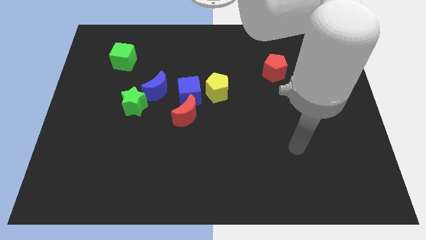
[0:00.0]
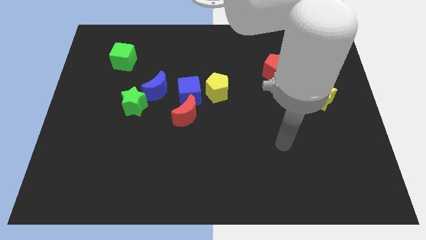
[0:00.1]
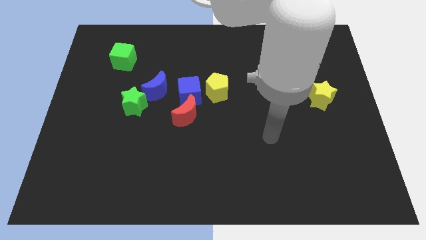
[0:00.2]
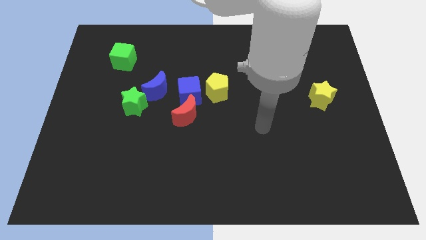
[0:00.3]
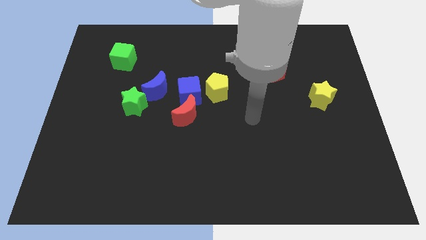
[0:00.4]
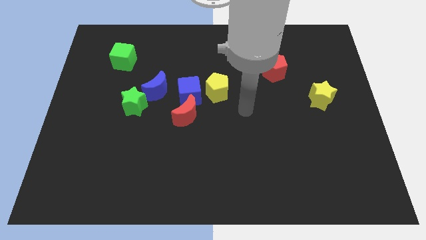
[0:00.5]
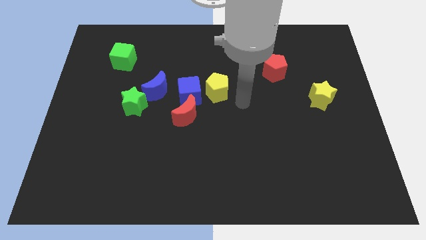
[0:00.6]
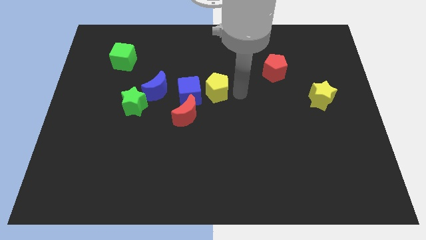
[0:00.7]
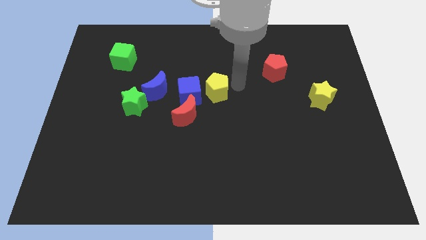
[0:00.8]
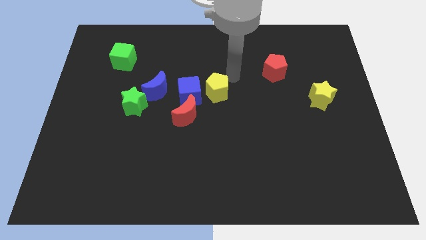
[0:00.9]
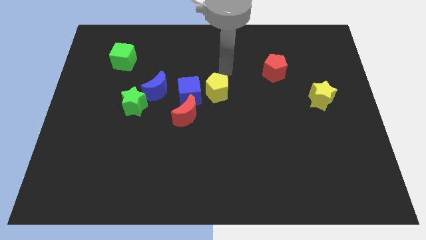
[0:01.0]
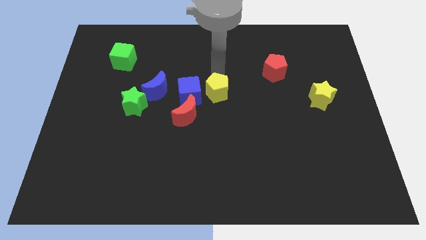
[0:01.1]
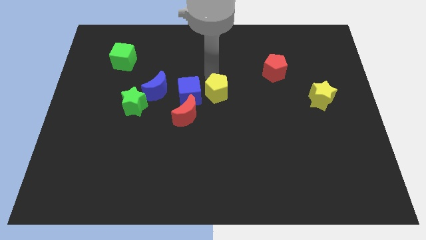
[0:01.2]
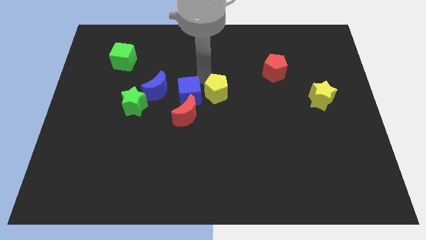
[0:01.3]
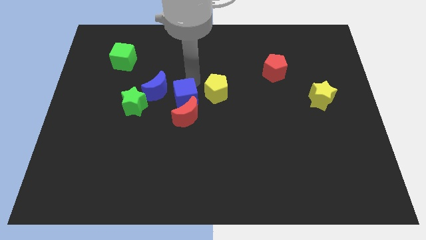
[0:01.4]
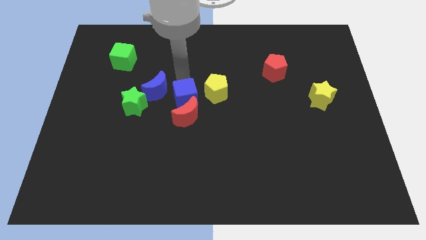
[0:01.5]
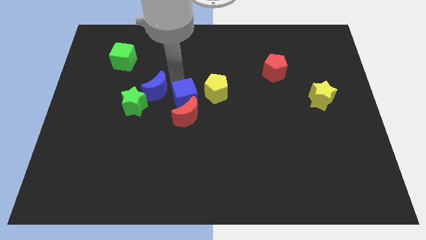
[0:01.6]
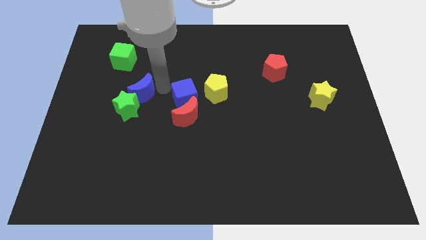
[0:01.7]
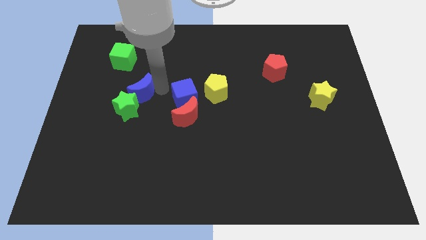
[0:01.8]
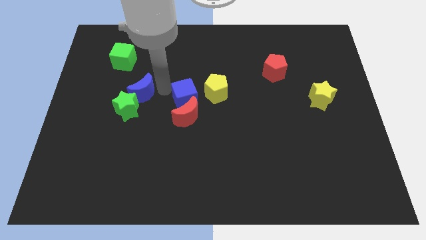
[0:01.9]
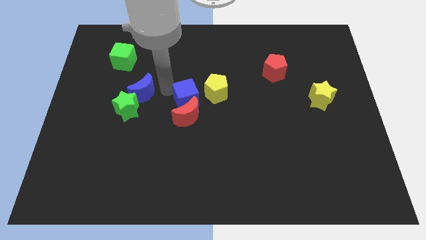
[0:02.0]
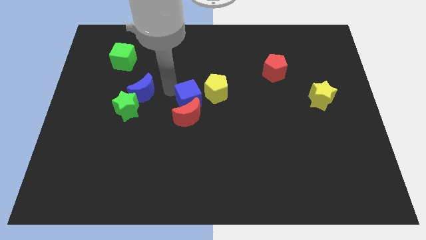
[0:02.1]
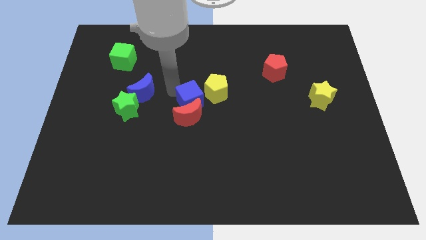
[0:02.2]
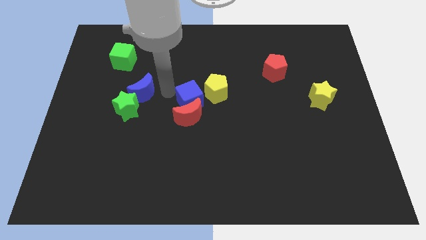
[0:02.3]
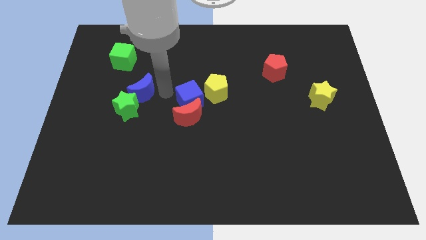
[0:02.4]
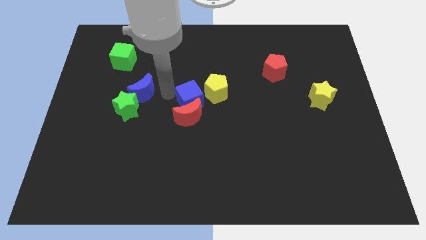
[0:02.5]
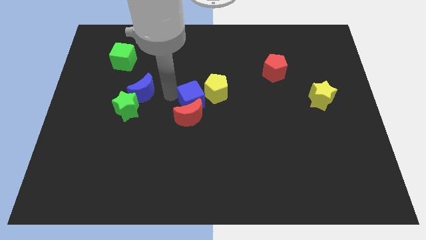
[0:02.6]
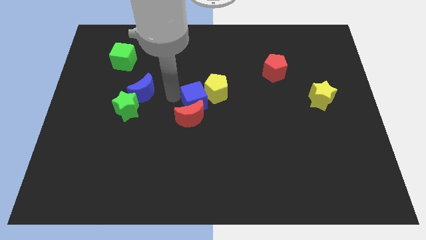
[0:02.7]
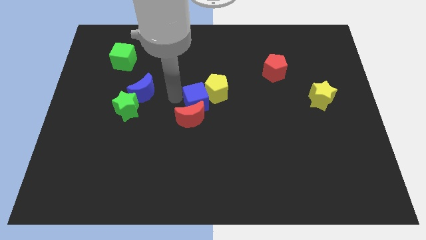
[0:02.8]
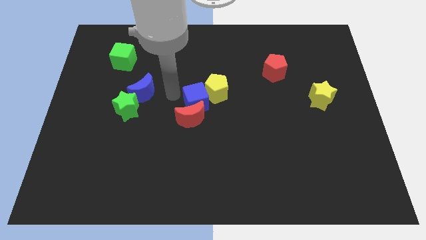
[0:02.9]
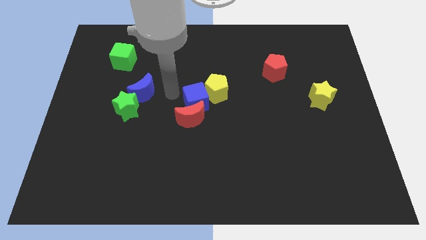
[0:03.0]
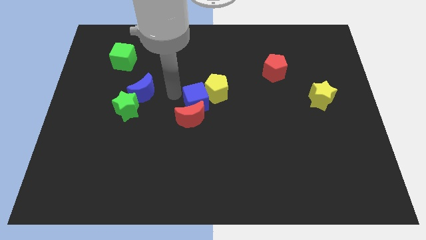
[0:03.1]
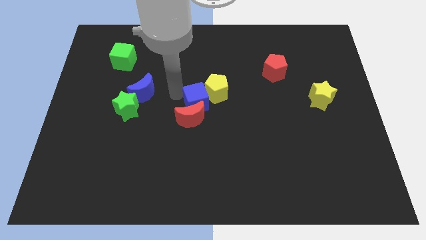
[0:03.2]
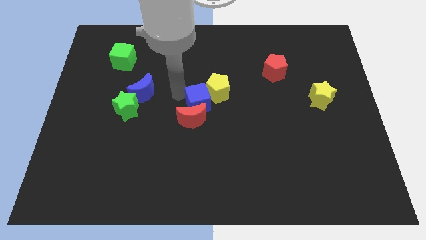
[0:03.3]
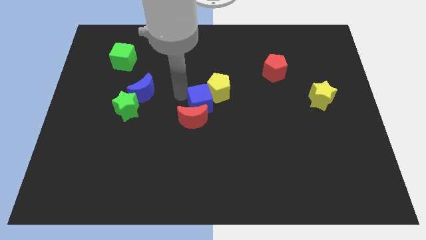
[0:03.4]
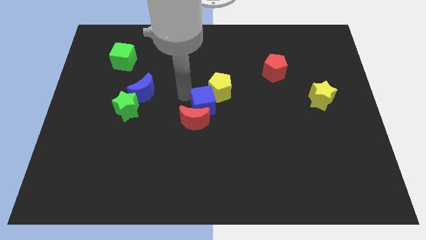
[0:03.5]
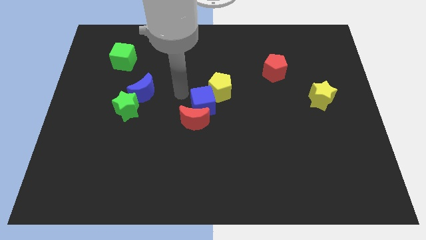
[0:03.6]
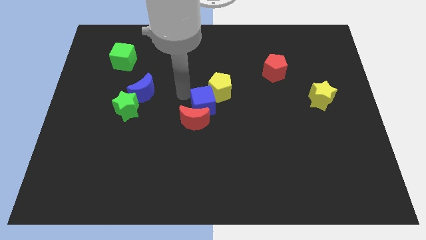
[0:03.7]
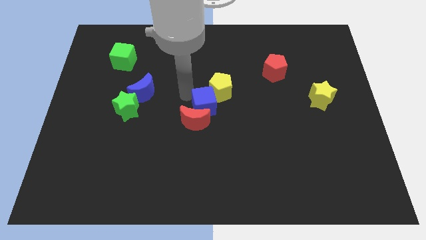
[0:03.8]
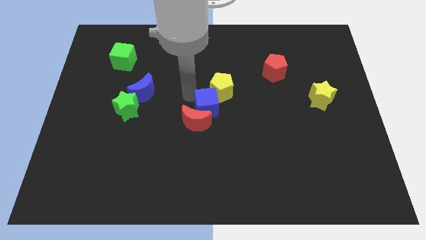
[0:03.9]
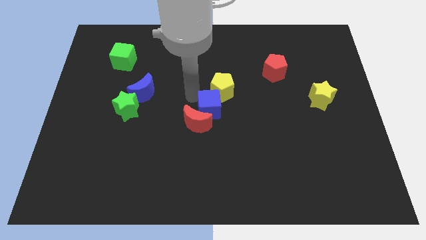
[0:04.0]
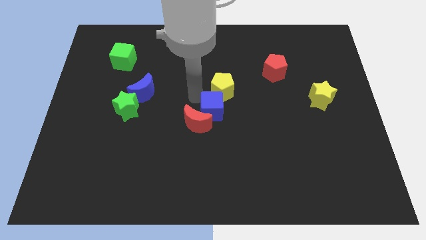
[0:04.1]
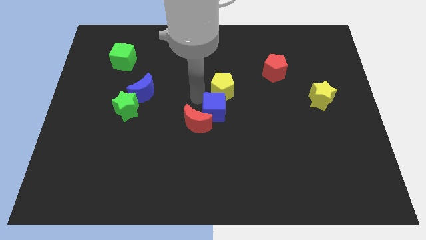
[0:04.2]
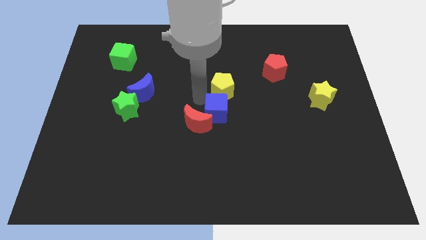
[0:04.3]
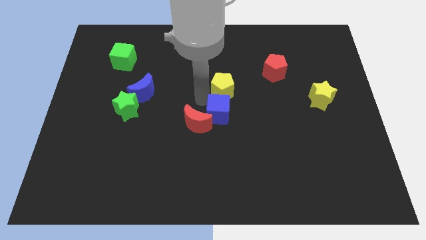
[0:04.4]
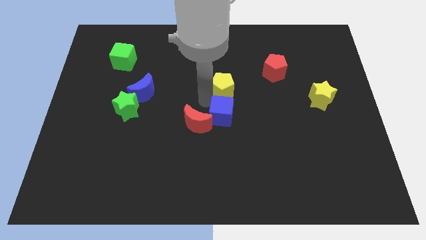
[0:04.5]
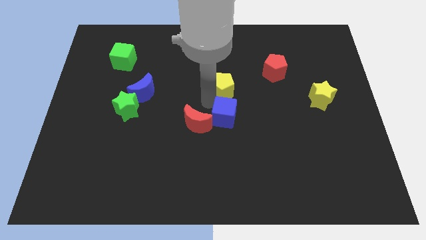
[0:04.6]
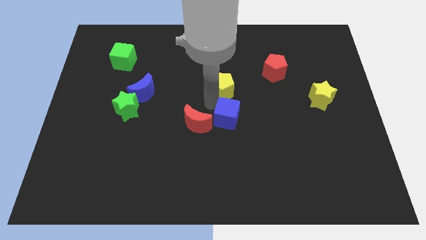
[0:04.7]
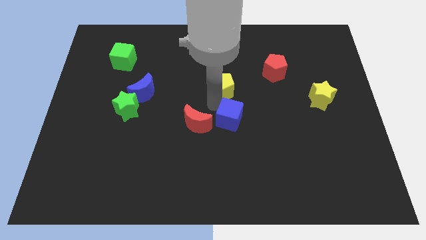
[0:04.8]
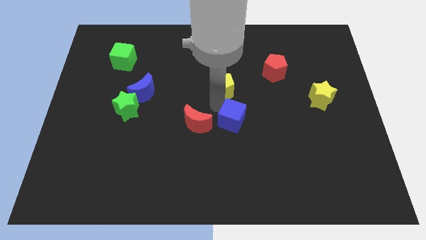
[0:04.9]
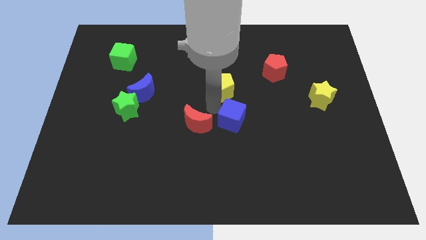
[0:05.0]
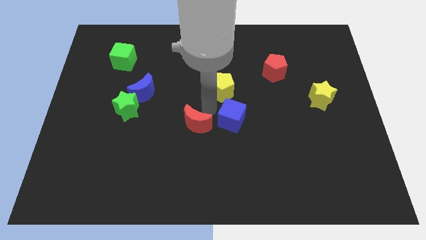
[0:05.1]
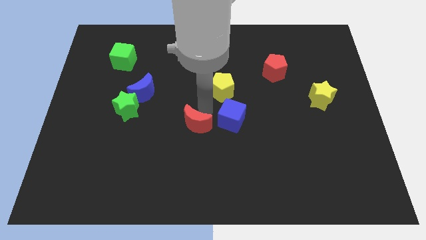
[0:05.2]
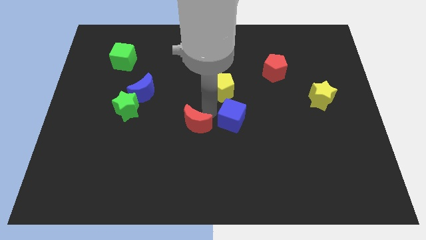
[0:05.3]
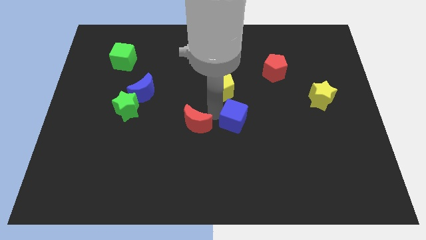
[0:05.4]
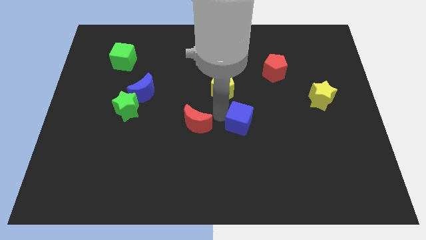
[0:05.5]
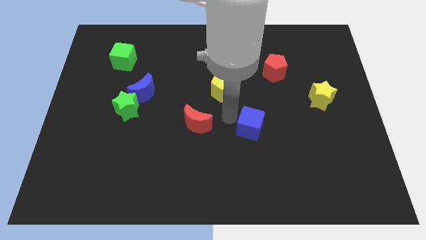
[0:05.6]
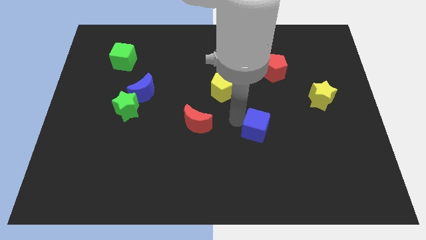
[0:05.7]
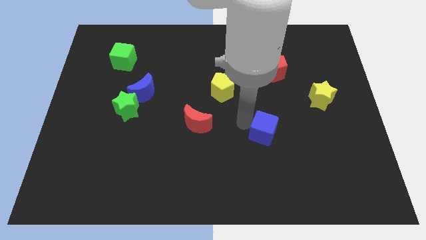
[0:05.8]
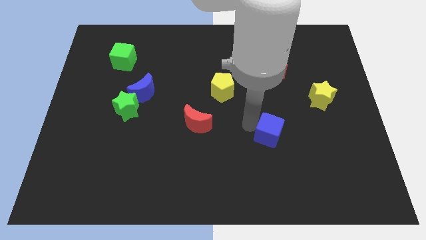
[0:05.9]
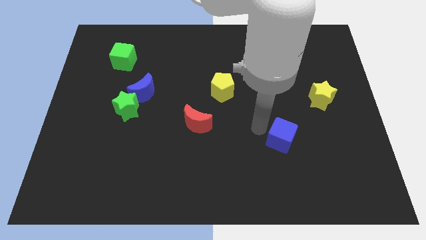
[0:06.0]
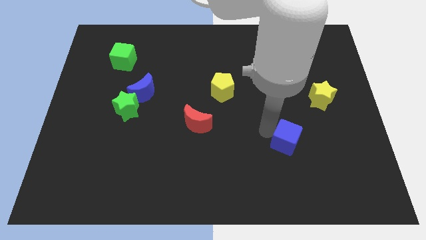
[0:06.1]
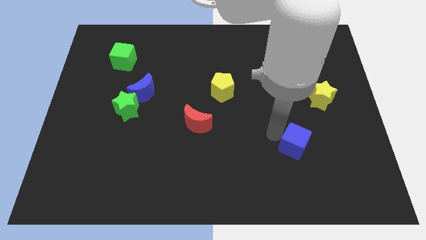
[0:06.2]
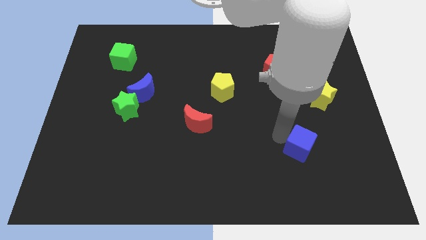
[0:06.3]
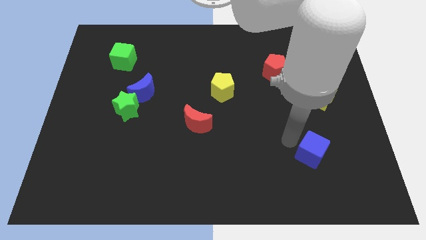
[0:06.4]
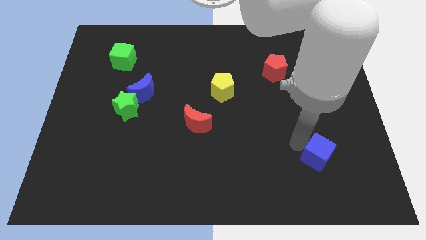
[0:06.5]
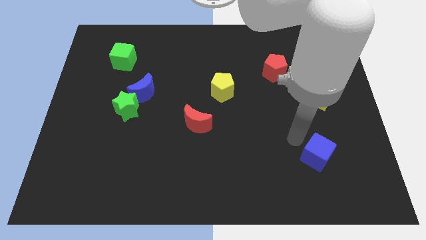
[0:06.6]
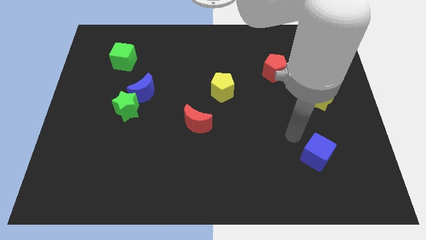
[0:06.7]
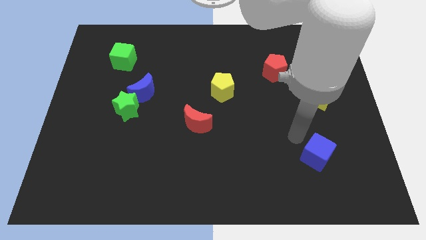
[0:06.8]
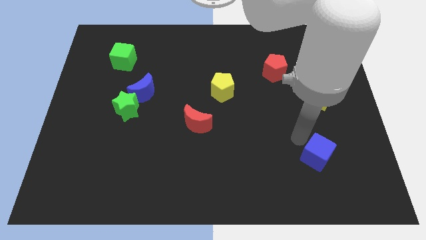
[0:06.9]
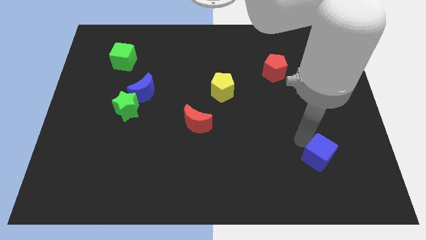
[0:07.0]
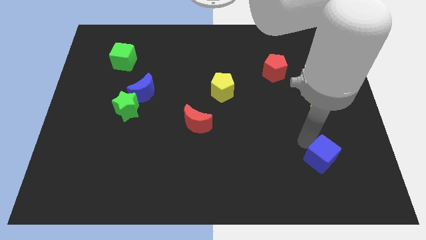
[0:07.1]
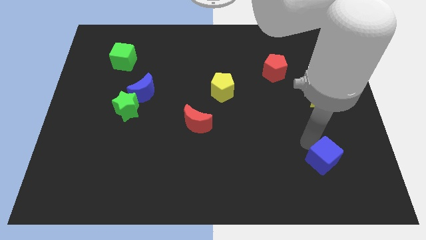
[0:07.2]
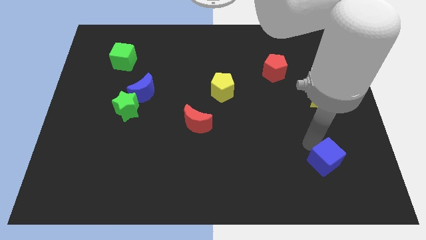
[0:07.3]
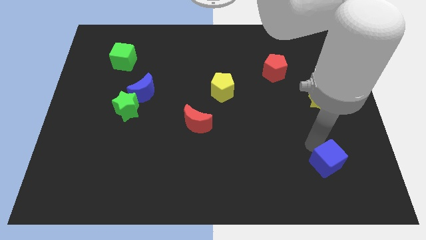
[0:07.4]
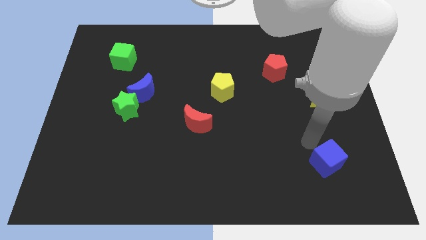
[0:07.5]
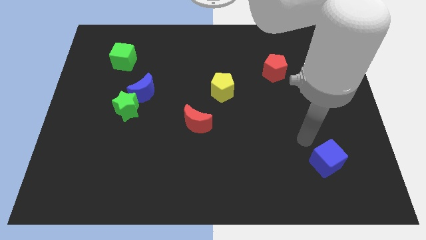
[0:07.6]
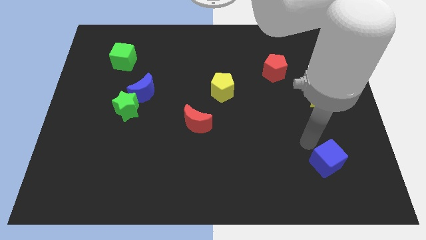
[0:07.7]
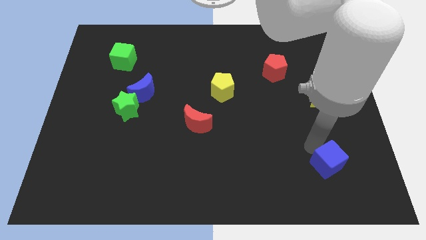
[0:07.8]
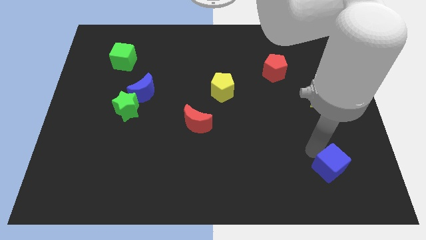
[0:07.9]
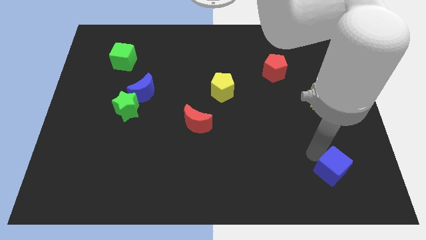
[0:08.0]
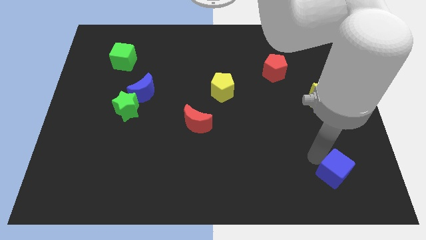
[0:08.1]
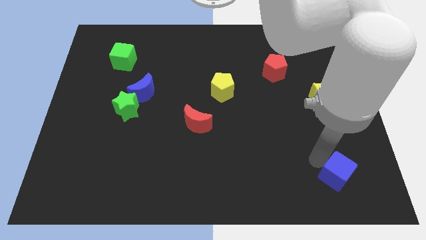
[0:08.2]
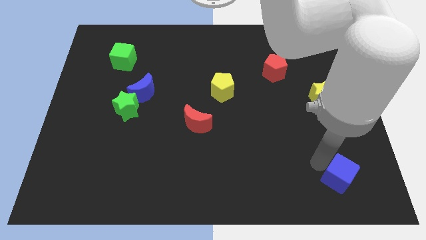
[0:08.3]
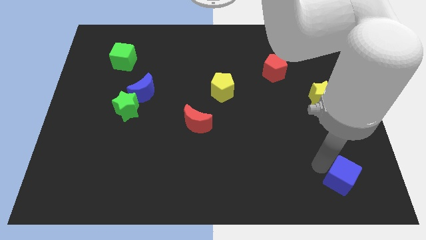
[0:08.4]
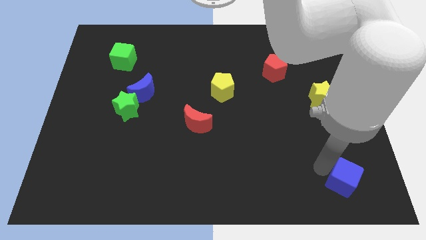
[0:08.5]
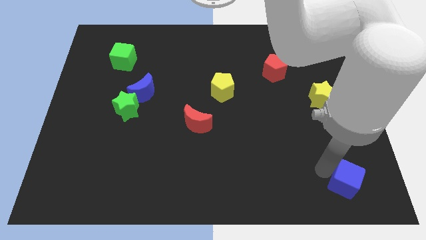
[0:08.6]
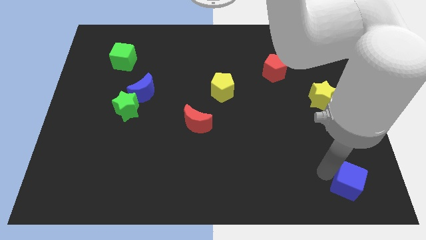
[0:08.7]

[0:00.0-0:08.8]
move the blue cube to the bottom right
